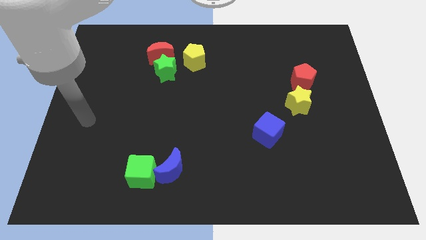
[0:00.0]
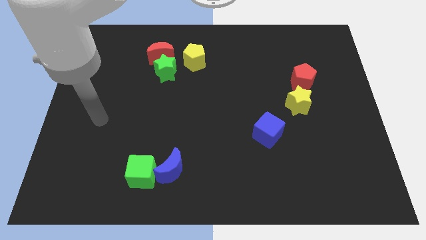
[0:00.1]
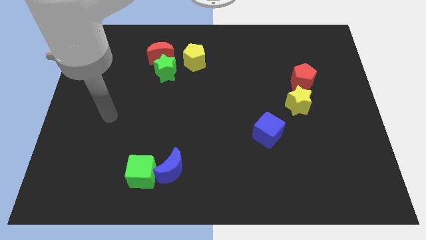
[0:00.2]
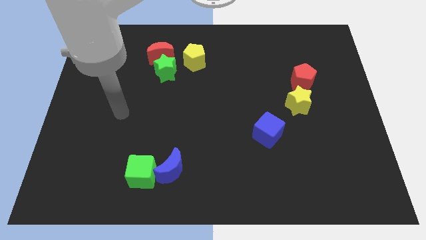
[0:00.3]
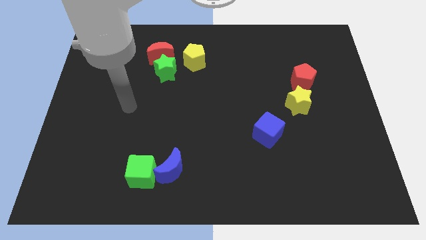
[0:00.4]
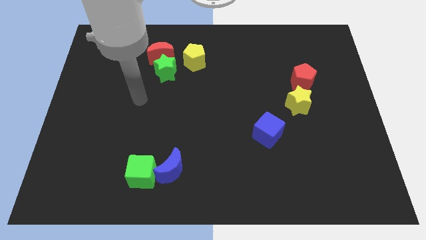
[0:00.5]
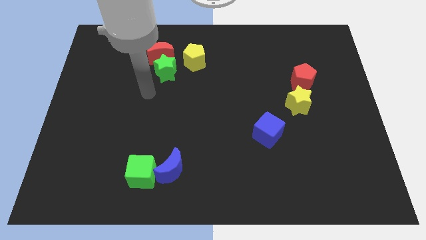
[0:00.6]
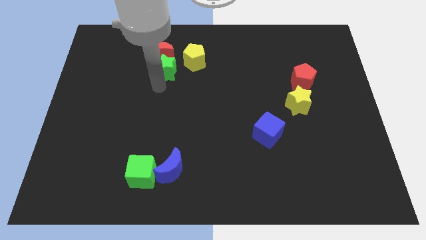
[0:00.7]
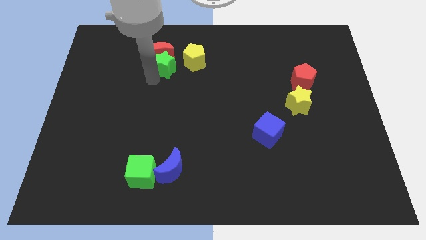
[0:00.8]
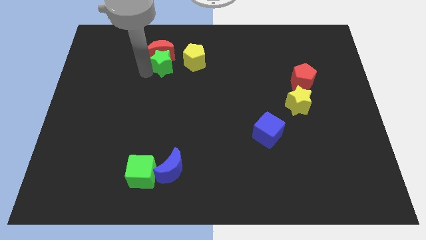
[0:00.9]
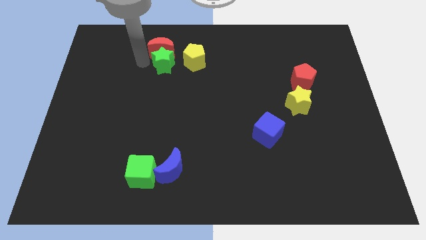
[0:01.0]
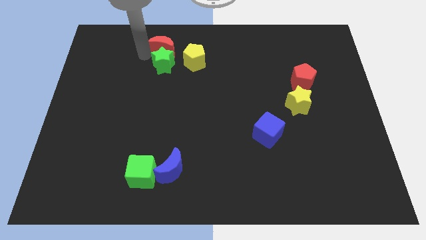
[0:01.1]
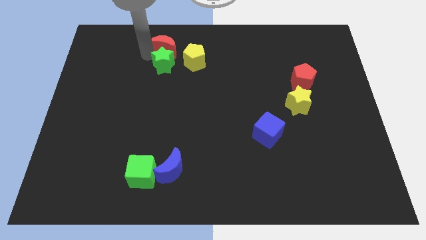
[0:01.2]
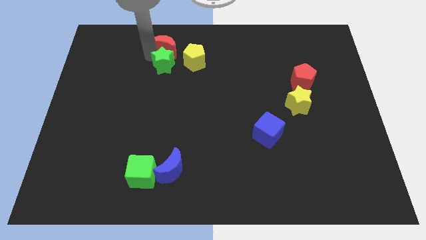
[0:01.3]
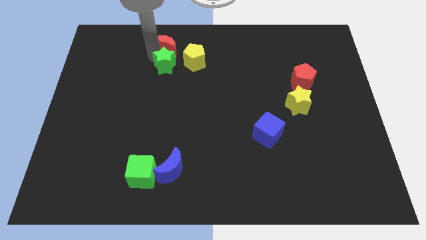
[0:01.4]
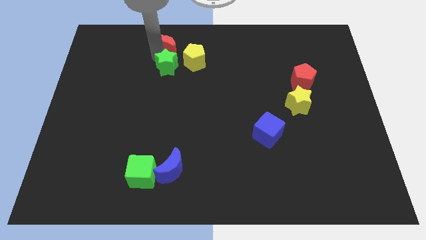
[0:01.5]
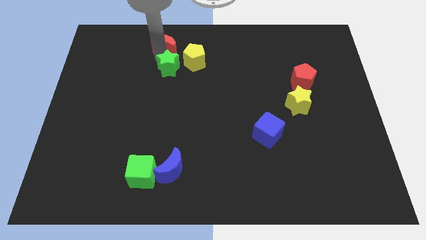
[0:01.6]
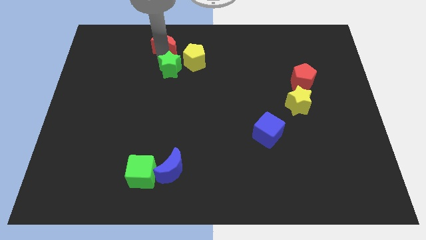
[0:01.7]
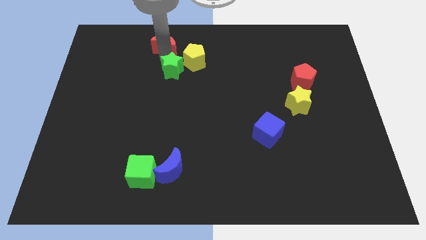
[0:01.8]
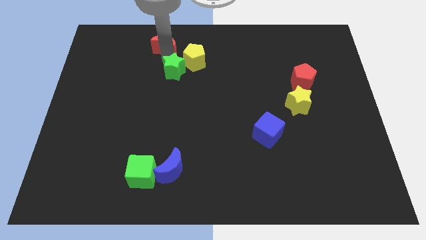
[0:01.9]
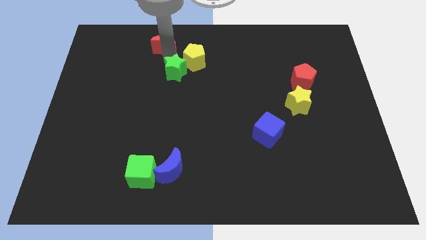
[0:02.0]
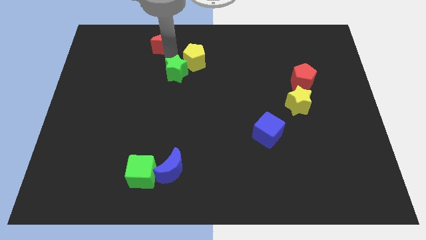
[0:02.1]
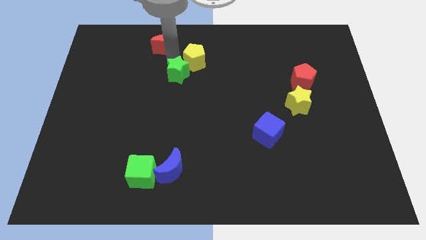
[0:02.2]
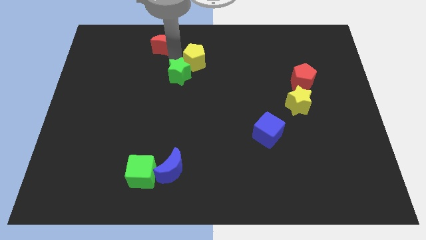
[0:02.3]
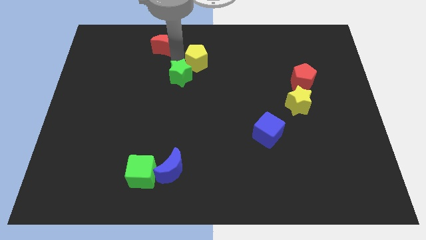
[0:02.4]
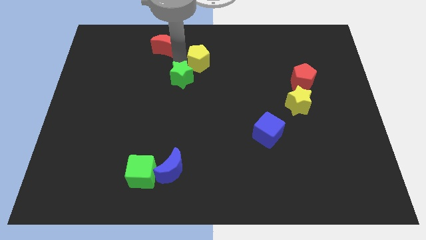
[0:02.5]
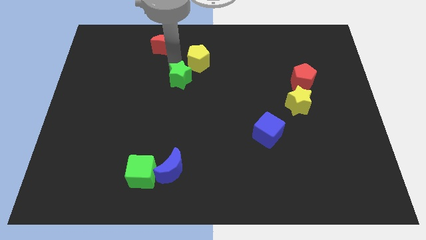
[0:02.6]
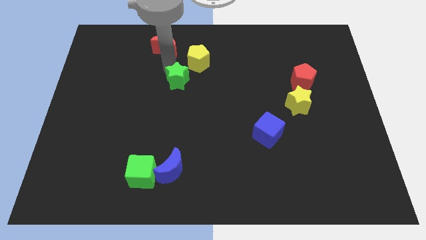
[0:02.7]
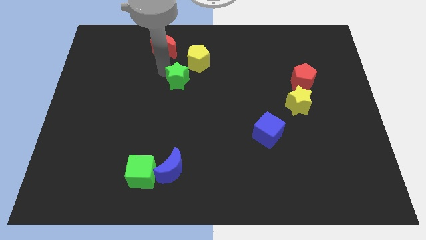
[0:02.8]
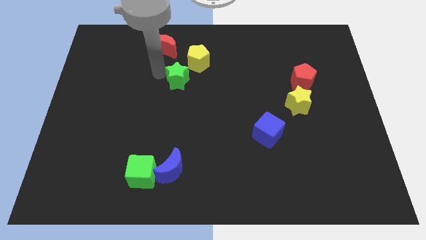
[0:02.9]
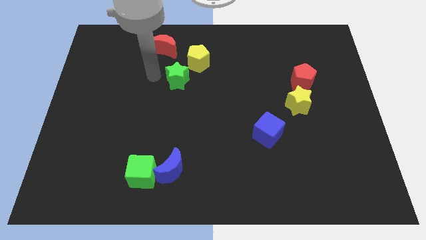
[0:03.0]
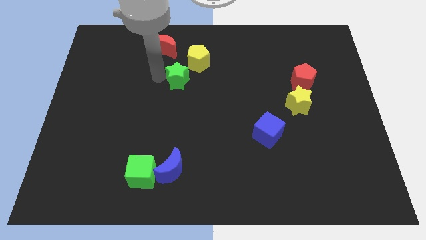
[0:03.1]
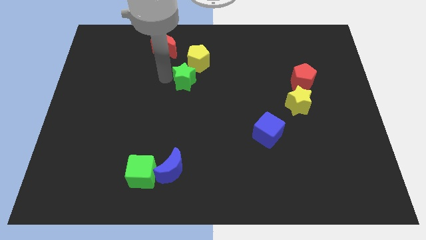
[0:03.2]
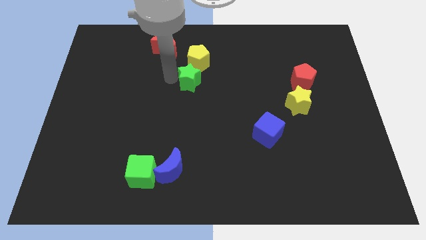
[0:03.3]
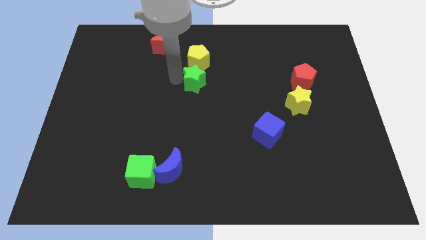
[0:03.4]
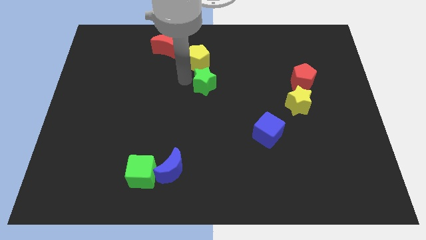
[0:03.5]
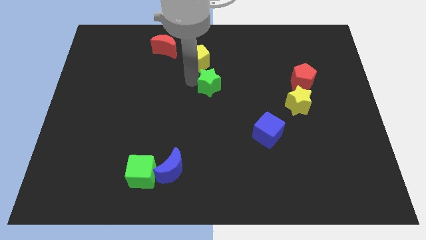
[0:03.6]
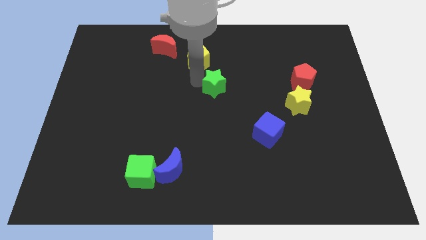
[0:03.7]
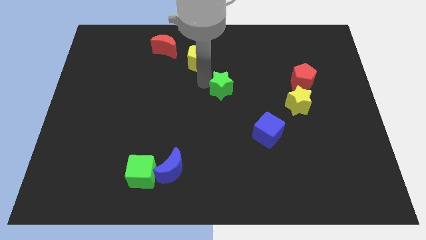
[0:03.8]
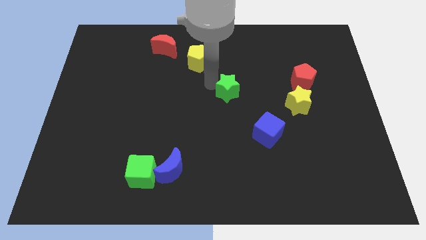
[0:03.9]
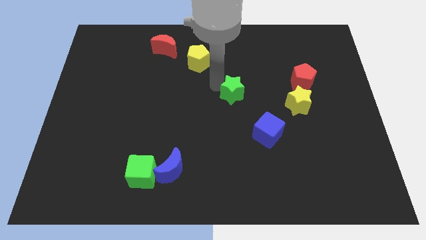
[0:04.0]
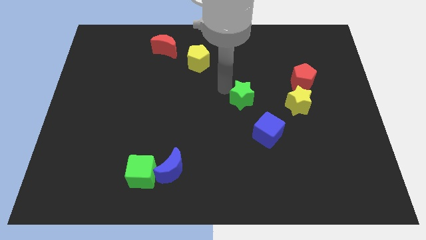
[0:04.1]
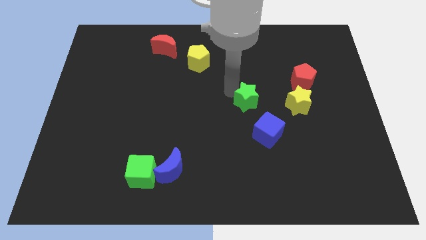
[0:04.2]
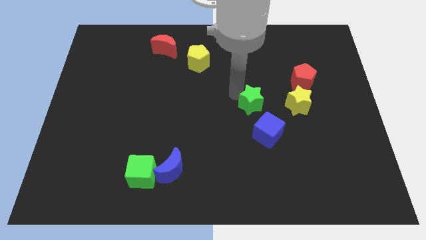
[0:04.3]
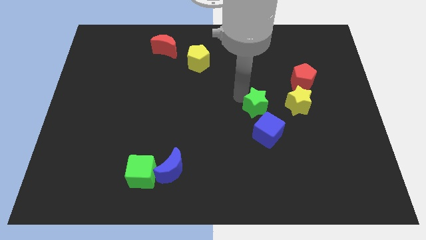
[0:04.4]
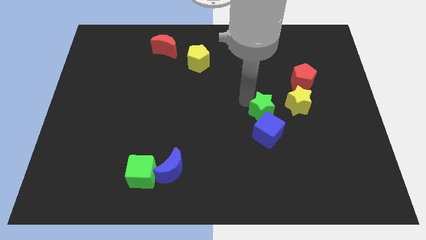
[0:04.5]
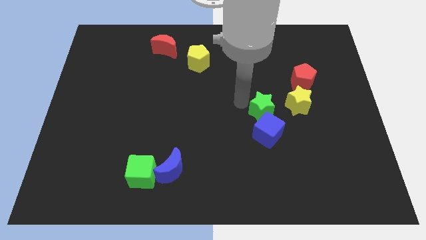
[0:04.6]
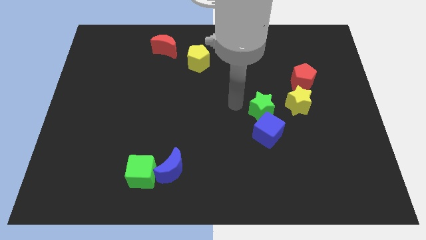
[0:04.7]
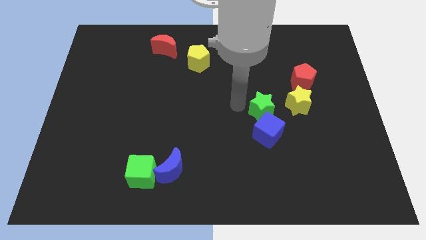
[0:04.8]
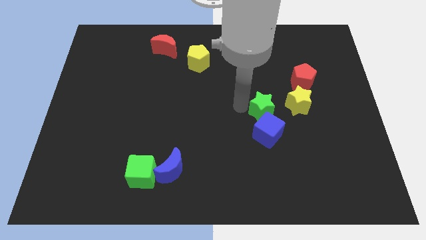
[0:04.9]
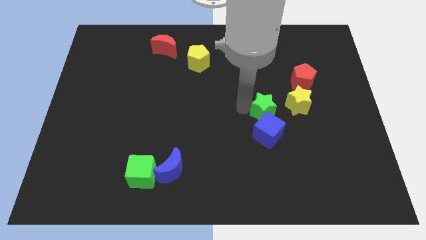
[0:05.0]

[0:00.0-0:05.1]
push the green star to the top right of the blue cube

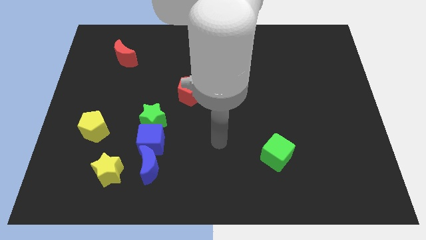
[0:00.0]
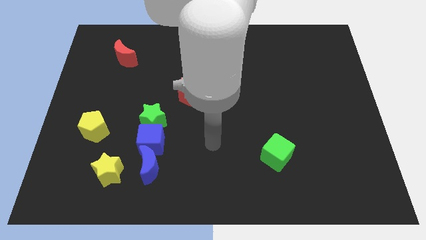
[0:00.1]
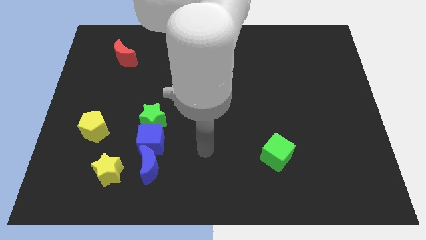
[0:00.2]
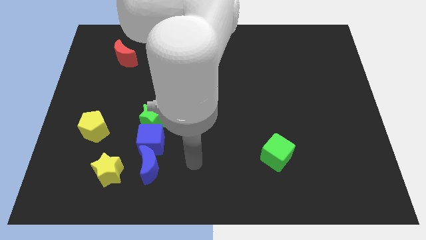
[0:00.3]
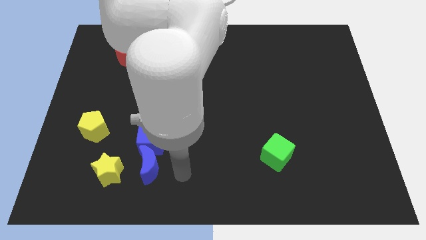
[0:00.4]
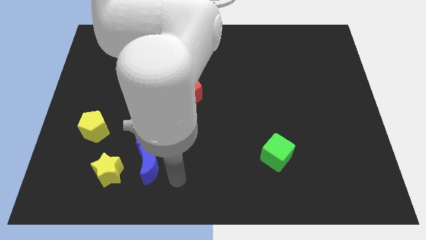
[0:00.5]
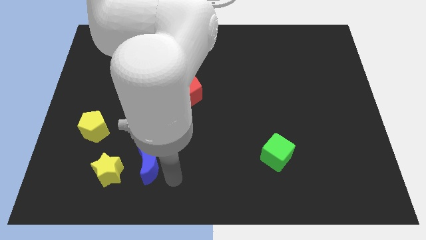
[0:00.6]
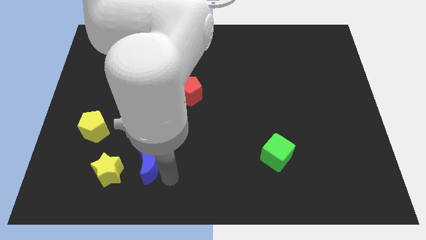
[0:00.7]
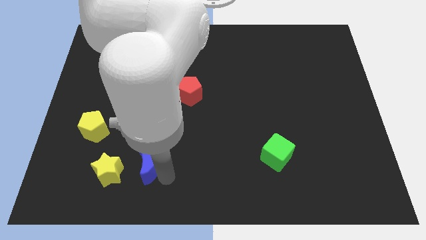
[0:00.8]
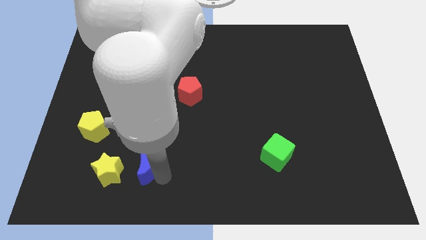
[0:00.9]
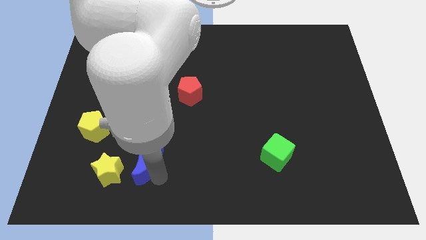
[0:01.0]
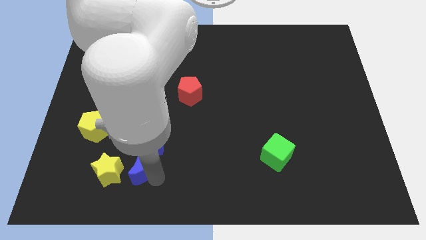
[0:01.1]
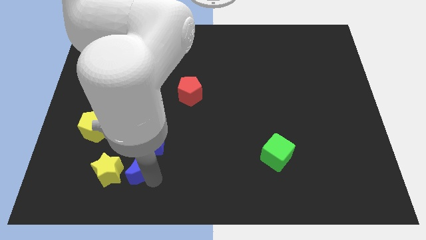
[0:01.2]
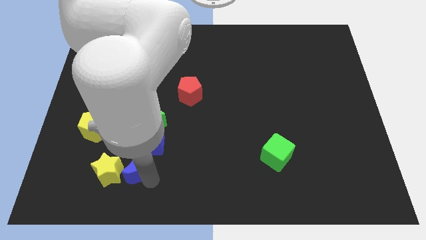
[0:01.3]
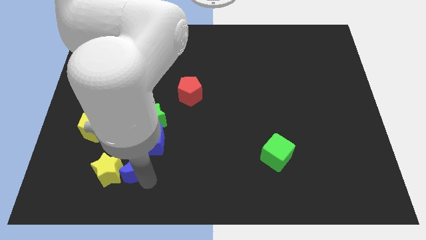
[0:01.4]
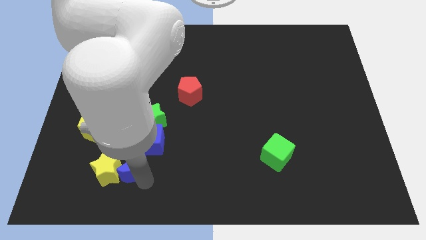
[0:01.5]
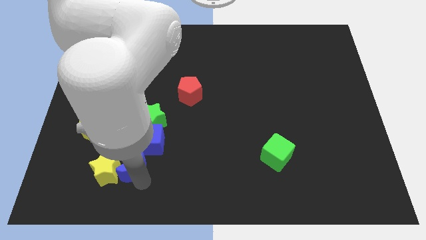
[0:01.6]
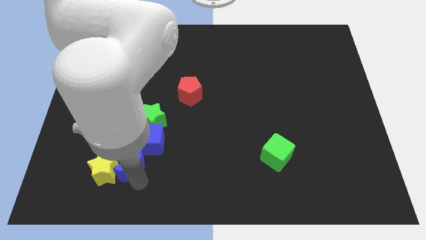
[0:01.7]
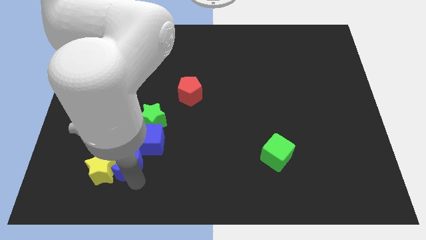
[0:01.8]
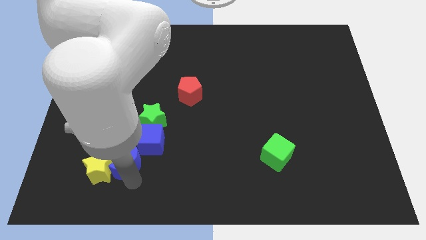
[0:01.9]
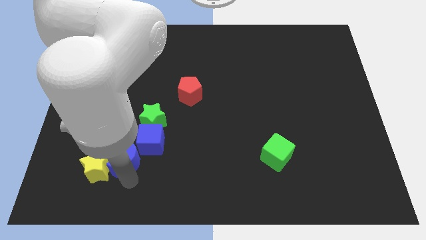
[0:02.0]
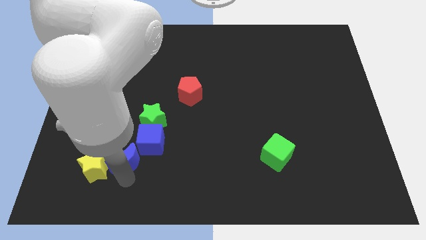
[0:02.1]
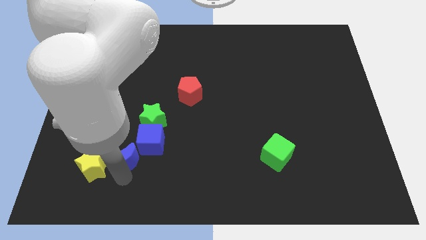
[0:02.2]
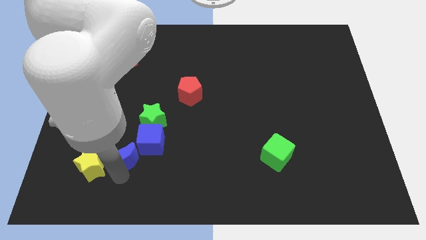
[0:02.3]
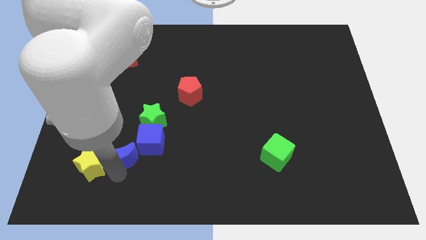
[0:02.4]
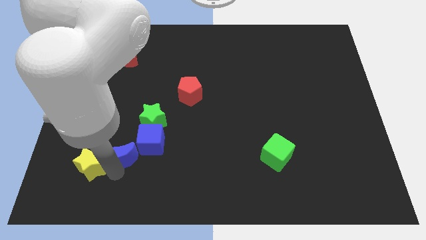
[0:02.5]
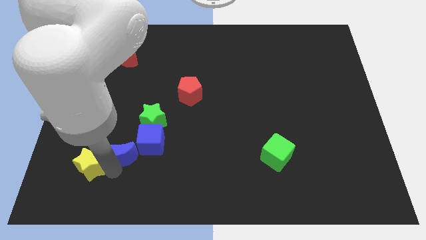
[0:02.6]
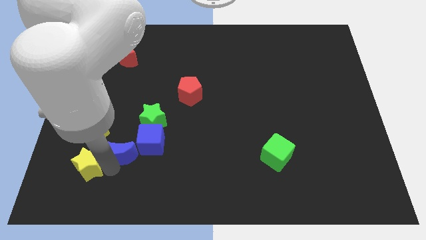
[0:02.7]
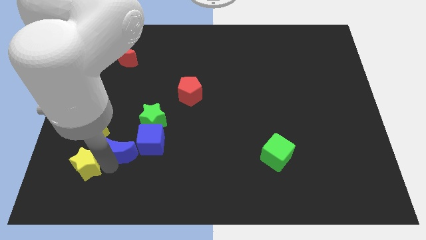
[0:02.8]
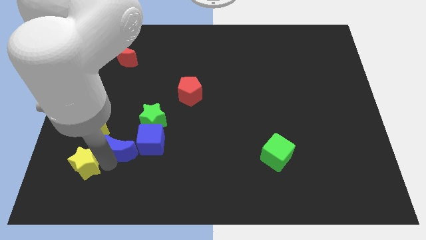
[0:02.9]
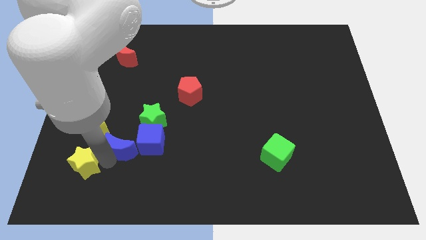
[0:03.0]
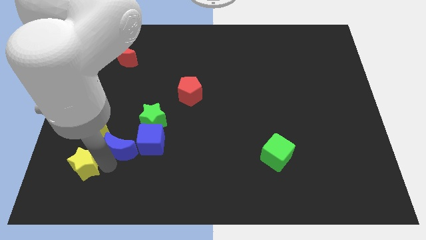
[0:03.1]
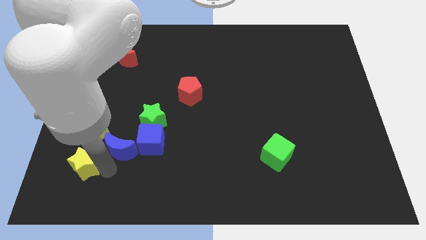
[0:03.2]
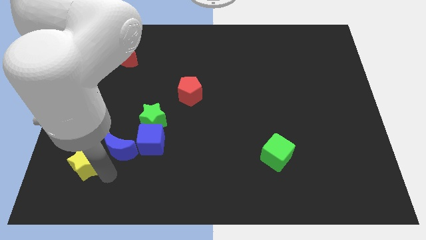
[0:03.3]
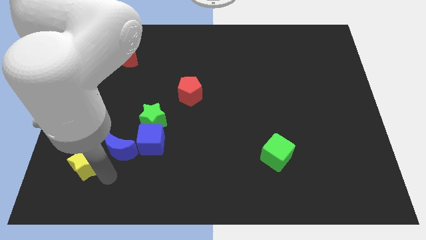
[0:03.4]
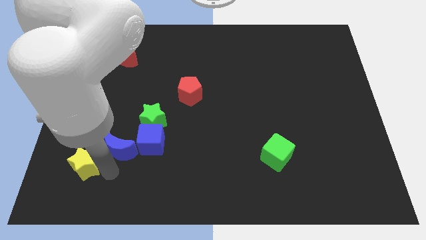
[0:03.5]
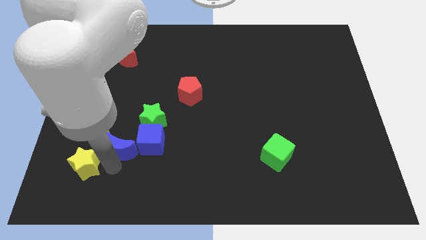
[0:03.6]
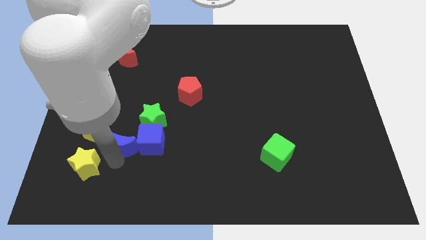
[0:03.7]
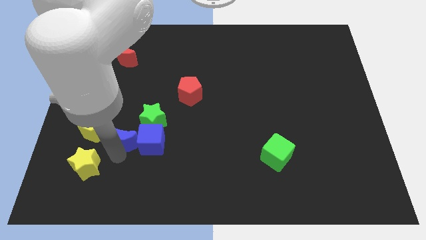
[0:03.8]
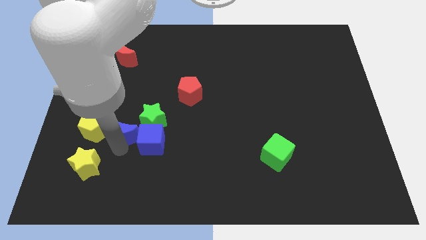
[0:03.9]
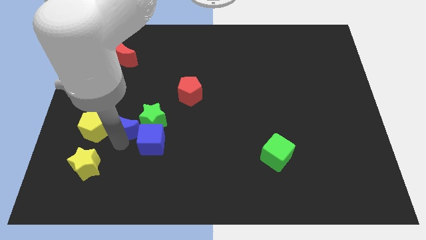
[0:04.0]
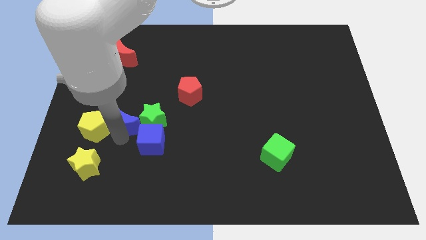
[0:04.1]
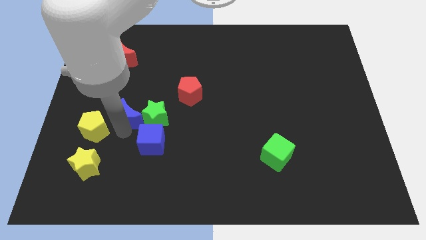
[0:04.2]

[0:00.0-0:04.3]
push the blue moon diagonally up and to the left of the green star
